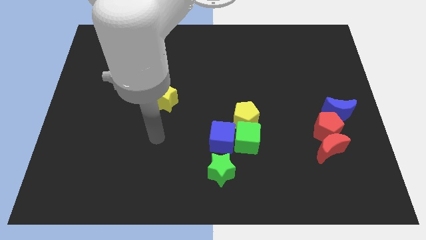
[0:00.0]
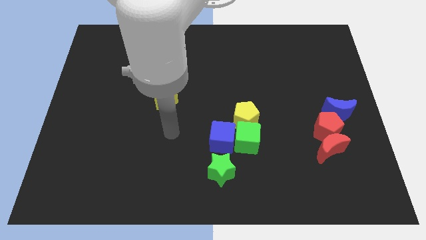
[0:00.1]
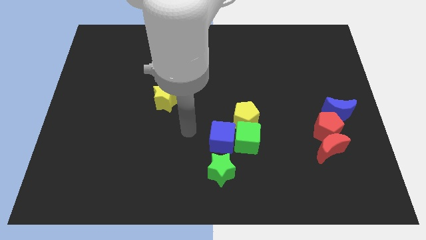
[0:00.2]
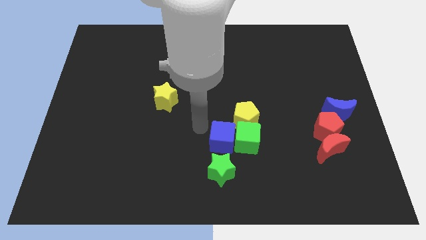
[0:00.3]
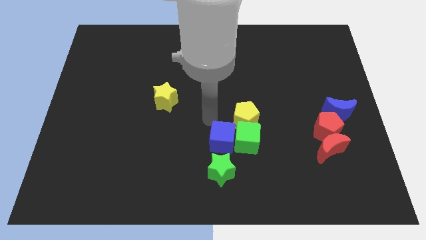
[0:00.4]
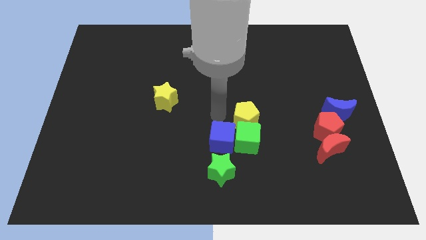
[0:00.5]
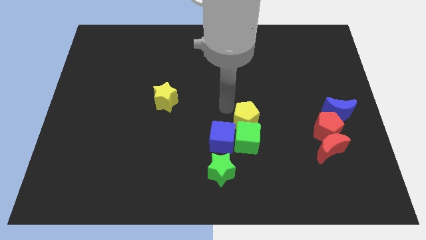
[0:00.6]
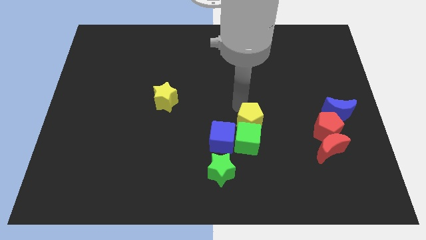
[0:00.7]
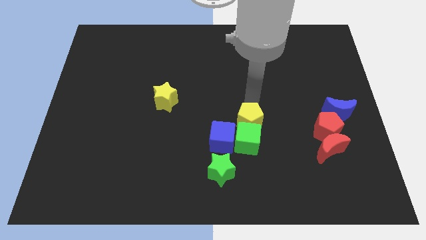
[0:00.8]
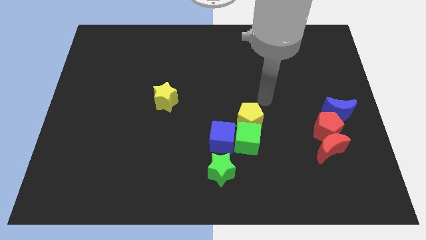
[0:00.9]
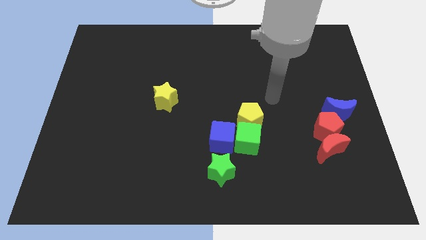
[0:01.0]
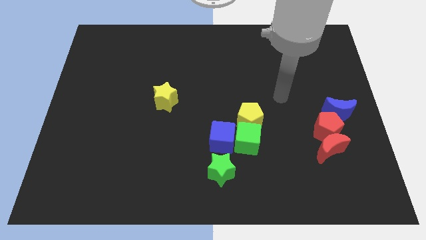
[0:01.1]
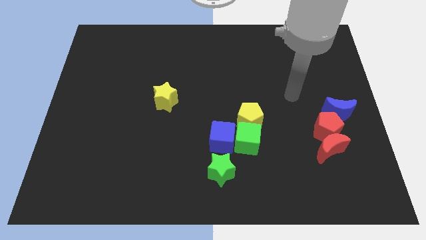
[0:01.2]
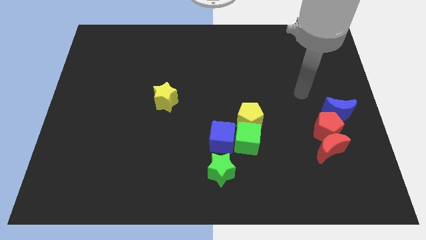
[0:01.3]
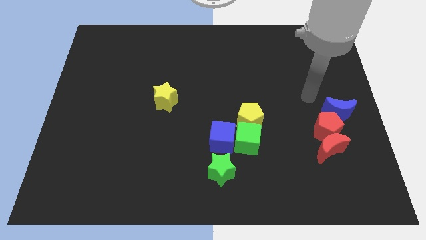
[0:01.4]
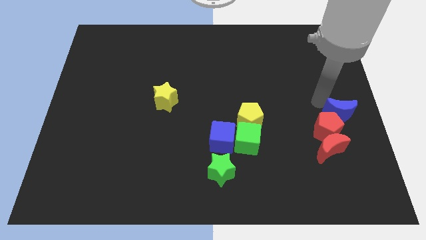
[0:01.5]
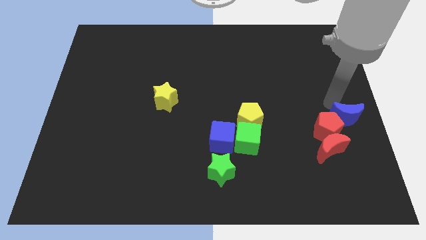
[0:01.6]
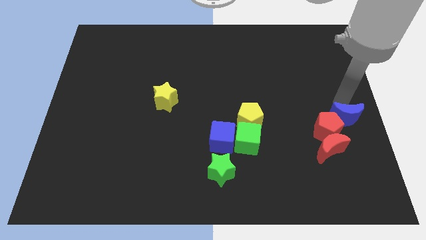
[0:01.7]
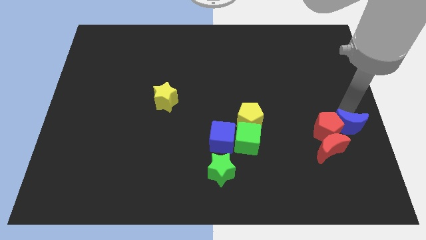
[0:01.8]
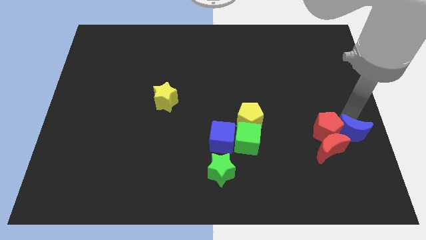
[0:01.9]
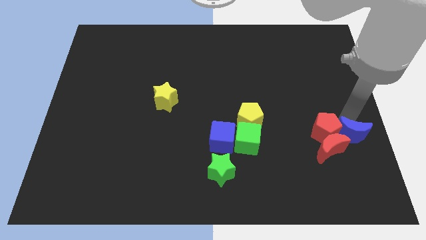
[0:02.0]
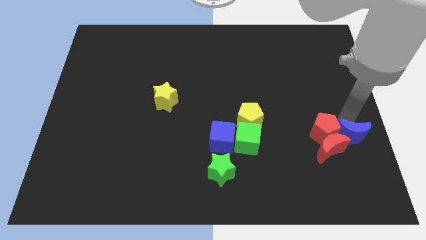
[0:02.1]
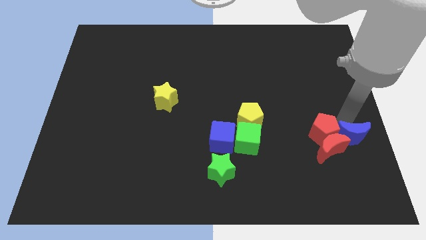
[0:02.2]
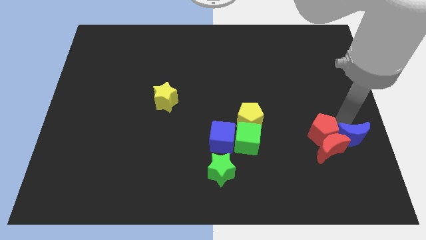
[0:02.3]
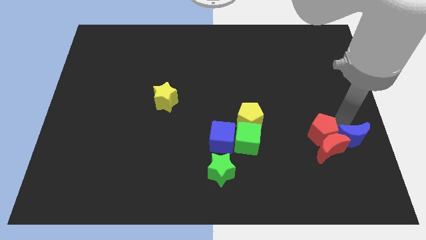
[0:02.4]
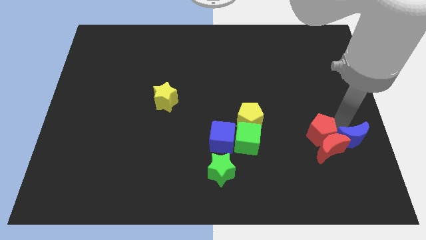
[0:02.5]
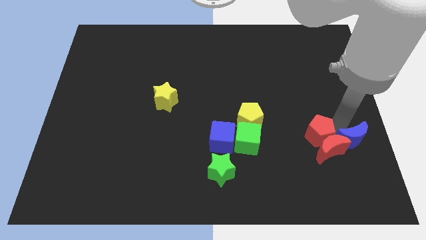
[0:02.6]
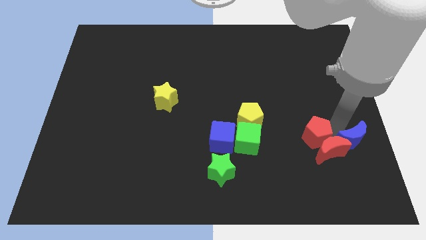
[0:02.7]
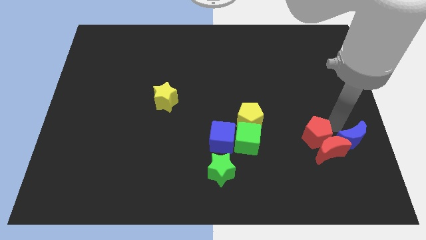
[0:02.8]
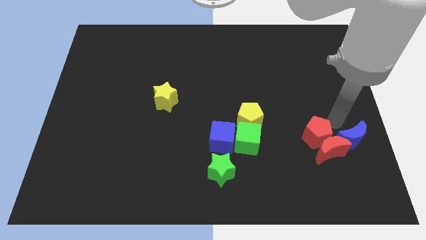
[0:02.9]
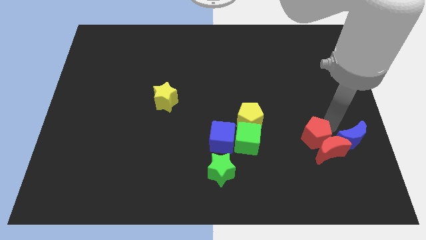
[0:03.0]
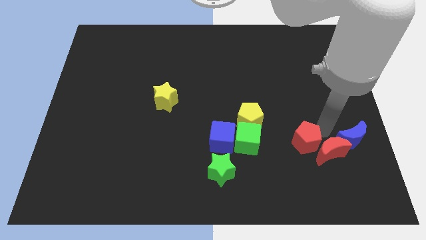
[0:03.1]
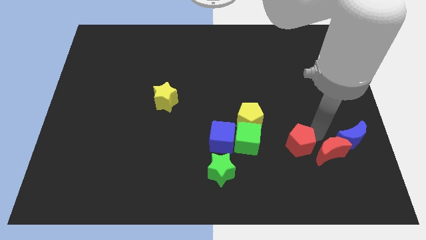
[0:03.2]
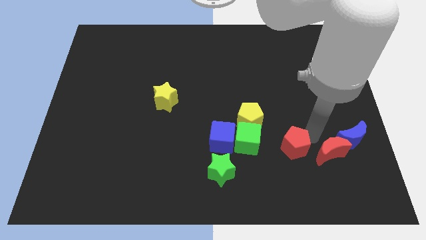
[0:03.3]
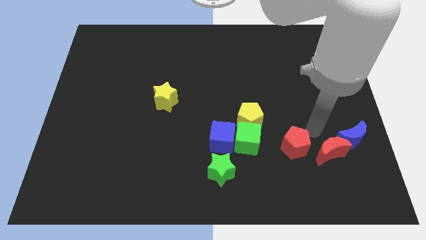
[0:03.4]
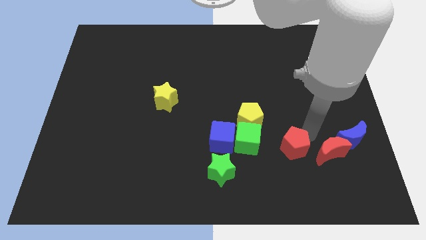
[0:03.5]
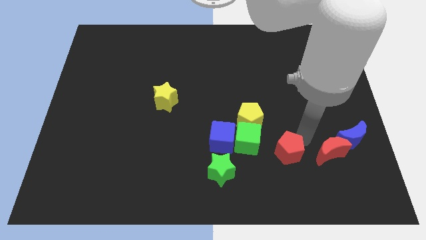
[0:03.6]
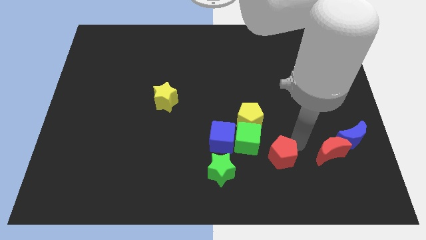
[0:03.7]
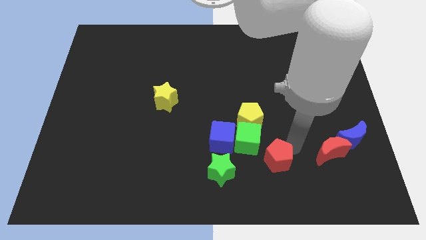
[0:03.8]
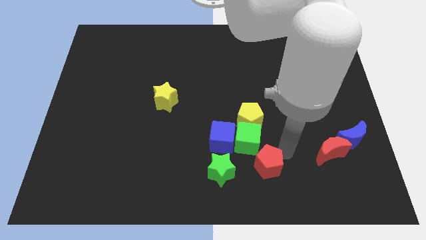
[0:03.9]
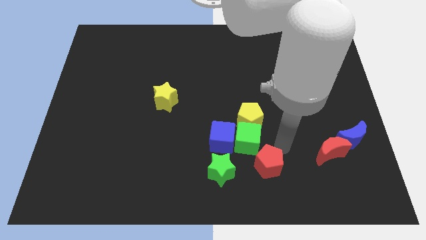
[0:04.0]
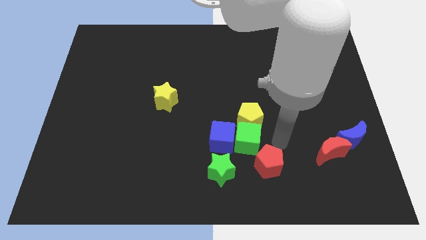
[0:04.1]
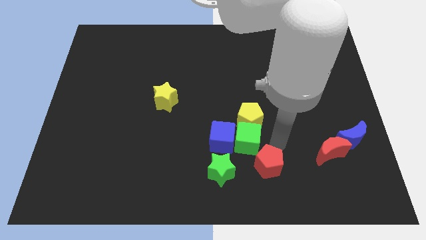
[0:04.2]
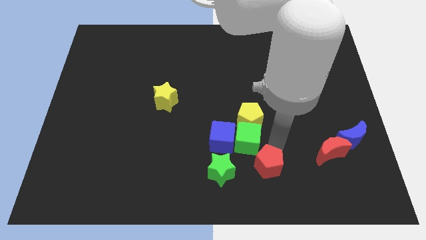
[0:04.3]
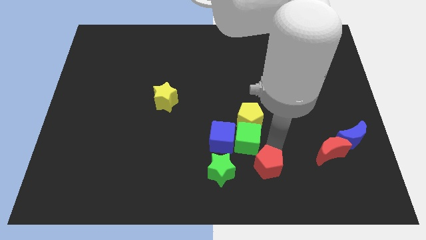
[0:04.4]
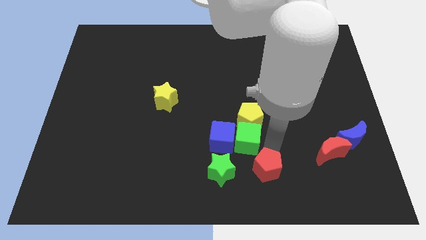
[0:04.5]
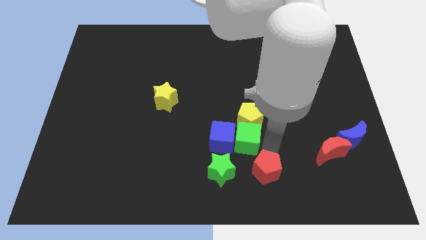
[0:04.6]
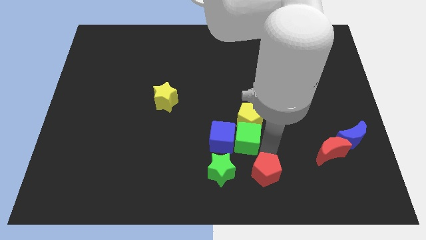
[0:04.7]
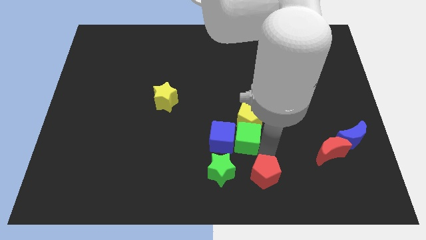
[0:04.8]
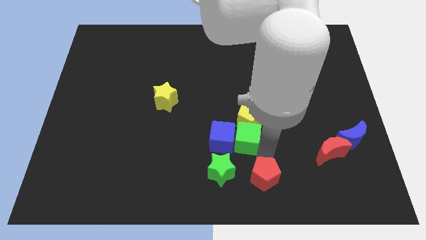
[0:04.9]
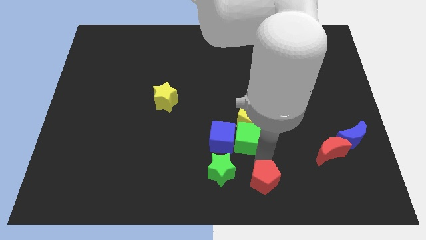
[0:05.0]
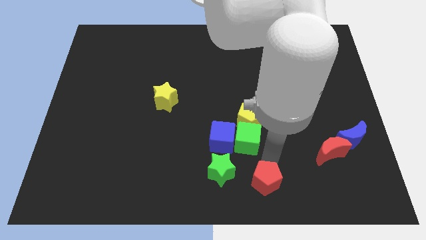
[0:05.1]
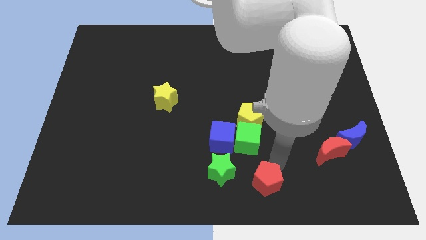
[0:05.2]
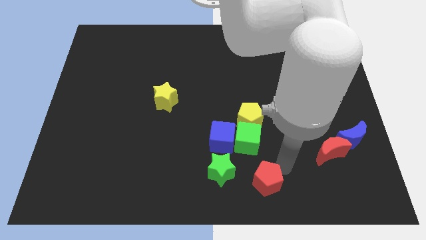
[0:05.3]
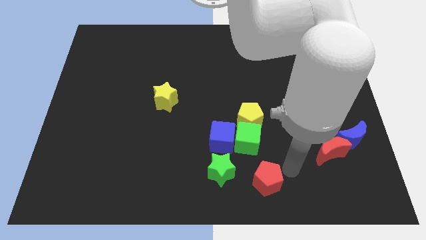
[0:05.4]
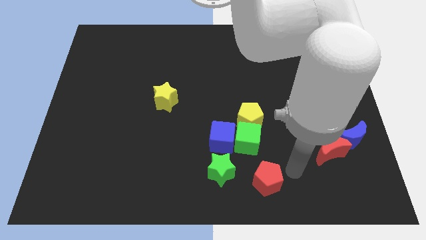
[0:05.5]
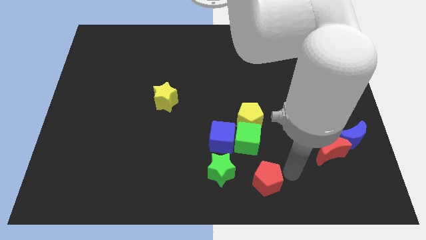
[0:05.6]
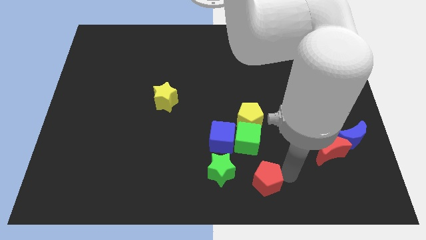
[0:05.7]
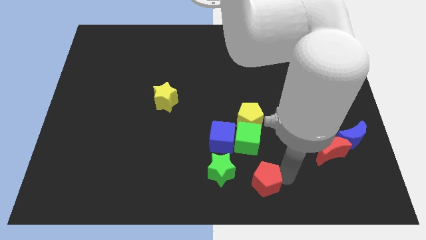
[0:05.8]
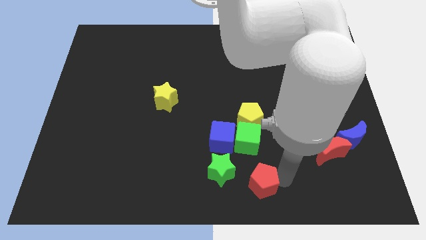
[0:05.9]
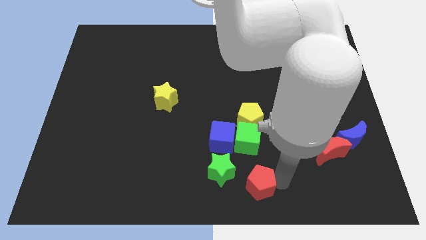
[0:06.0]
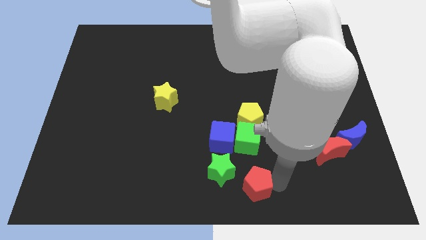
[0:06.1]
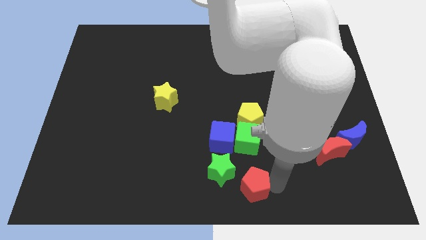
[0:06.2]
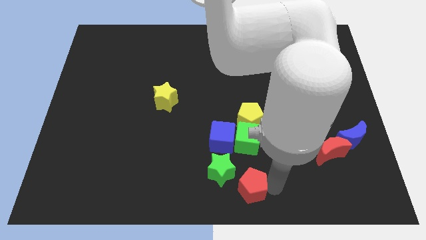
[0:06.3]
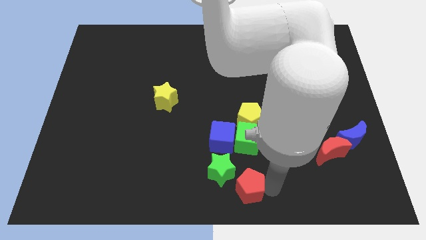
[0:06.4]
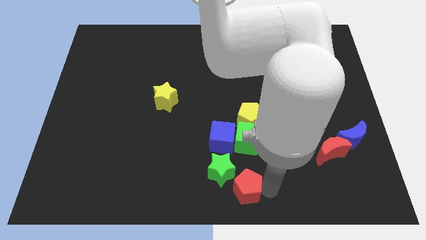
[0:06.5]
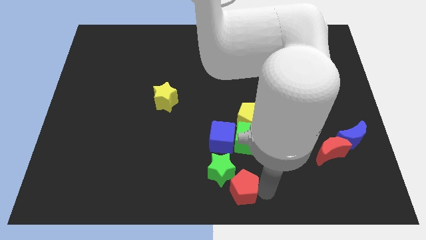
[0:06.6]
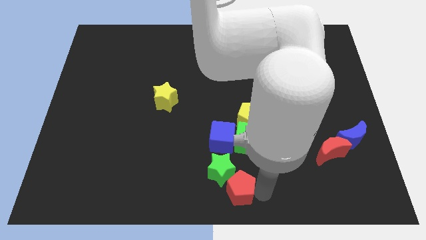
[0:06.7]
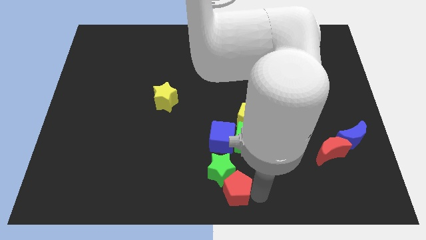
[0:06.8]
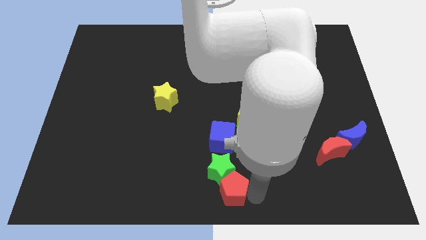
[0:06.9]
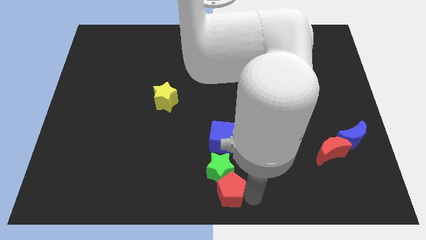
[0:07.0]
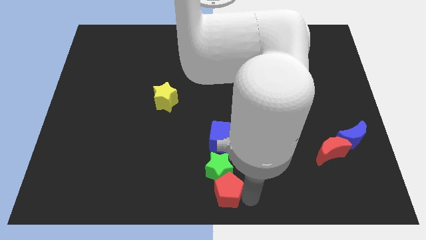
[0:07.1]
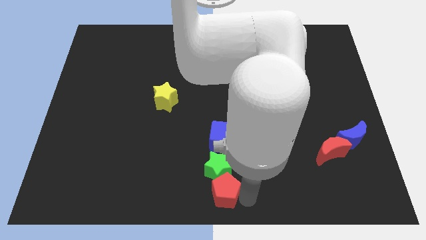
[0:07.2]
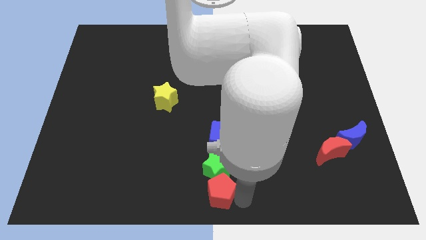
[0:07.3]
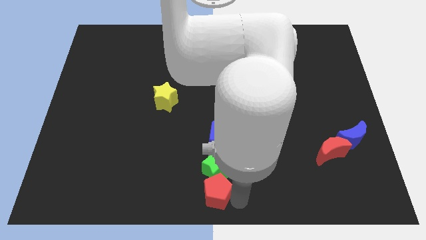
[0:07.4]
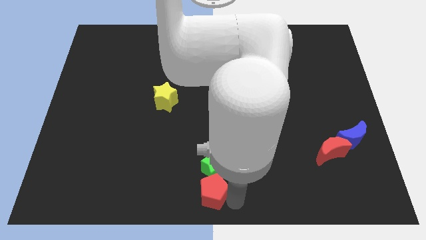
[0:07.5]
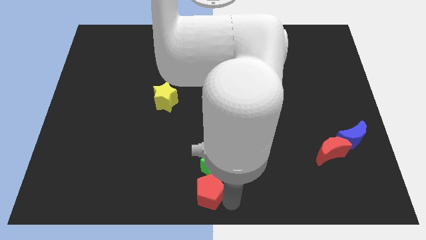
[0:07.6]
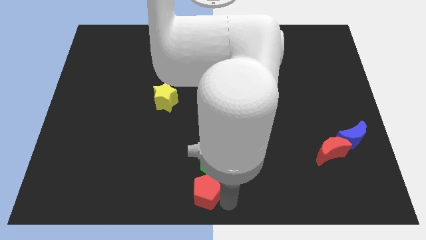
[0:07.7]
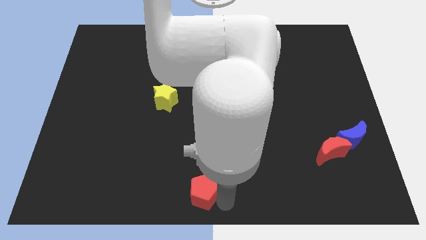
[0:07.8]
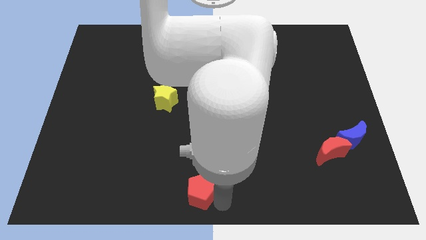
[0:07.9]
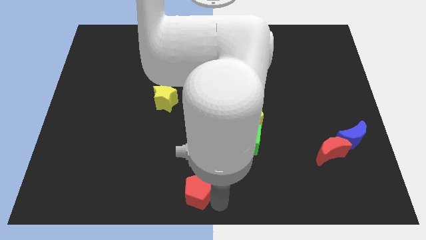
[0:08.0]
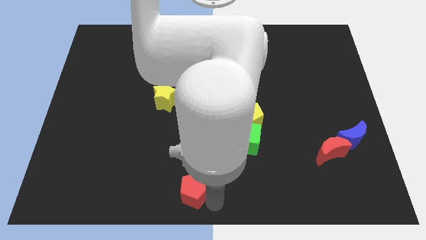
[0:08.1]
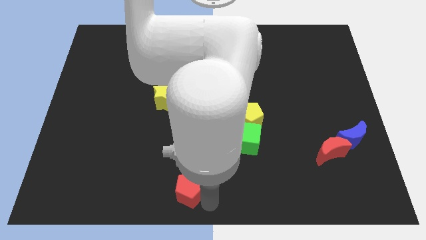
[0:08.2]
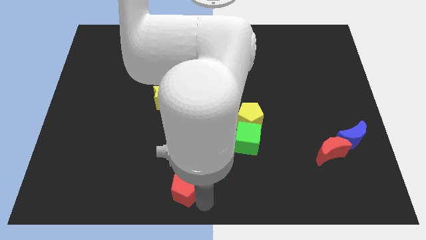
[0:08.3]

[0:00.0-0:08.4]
move the red pentagon to the left side of the green star
